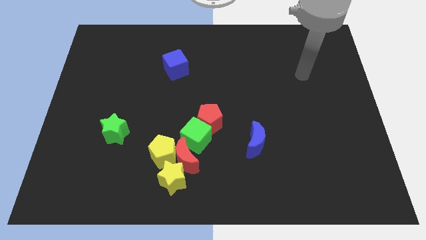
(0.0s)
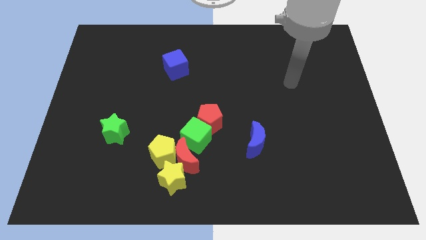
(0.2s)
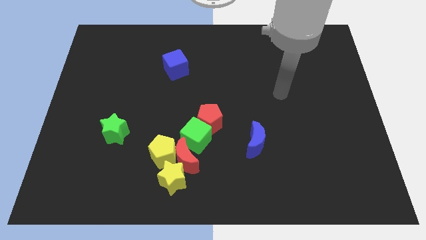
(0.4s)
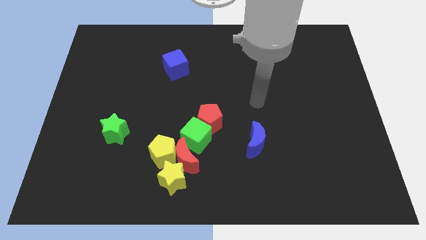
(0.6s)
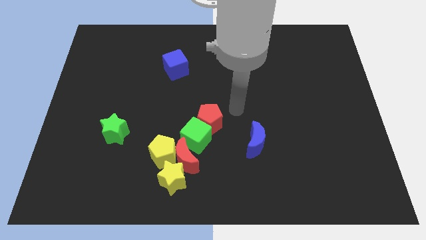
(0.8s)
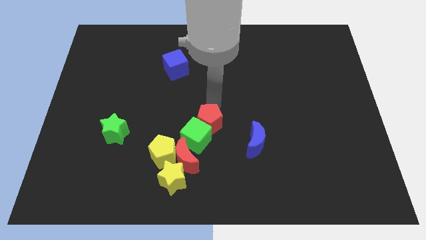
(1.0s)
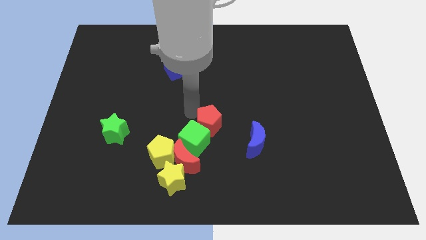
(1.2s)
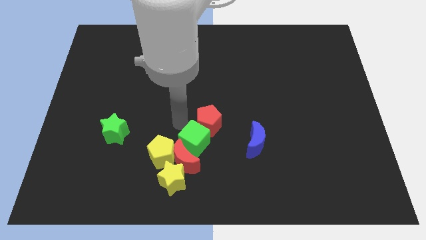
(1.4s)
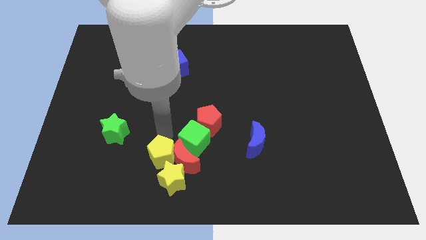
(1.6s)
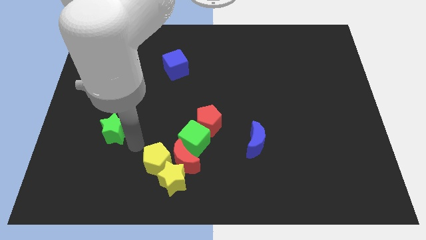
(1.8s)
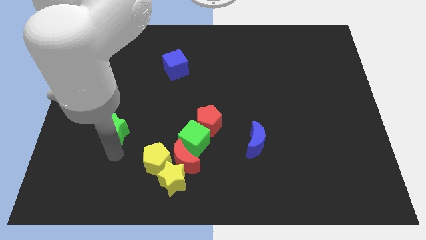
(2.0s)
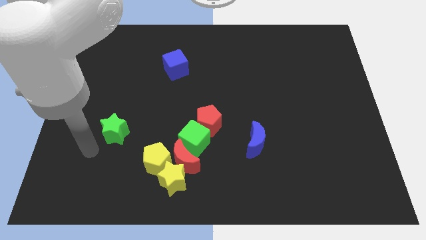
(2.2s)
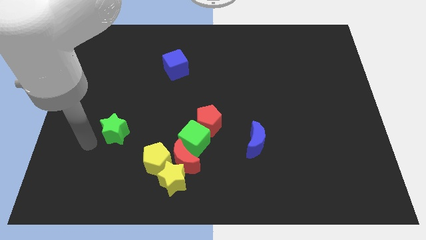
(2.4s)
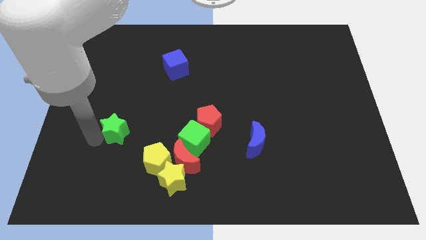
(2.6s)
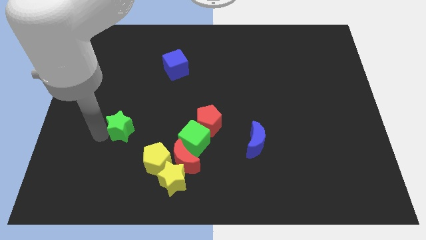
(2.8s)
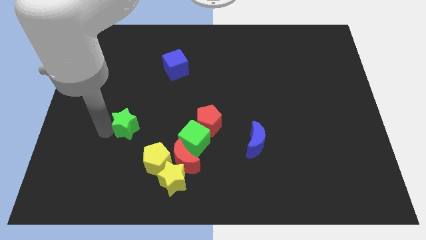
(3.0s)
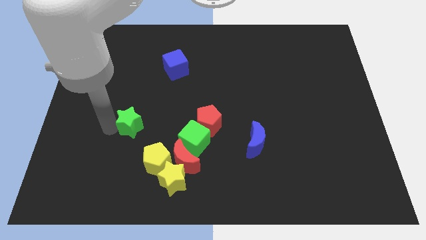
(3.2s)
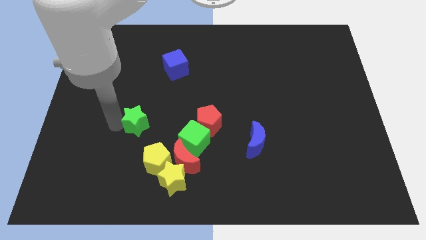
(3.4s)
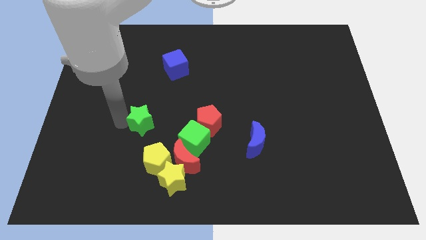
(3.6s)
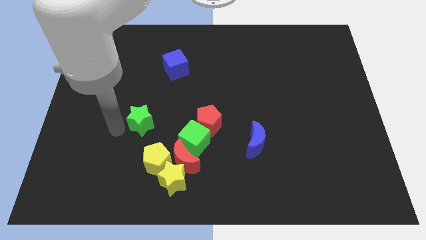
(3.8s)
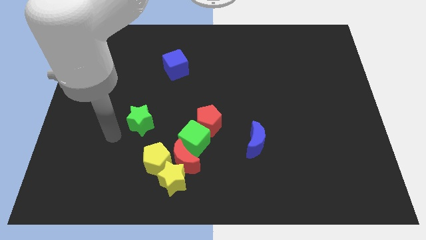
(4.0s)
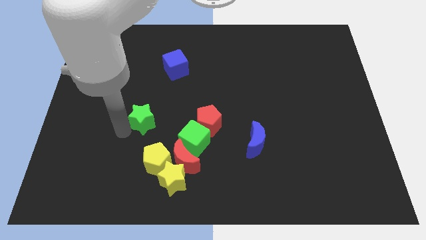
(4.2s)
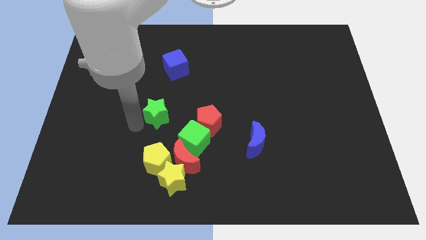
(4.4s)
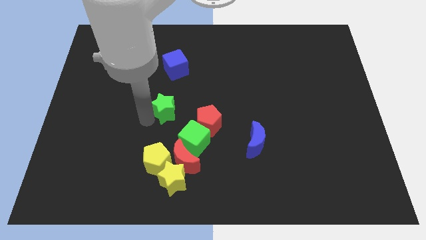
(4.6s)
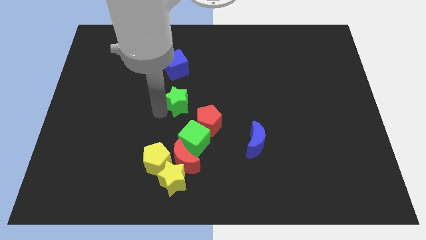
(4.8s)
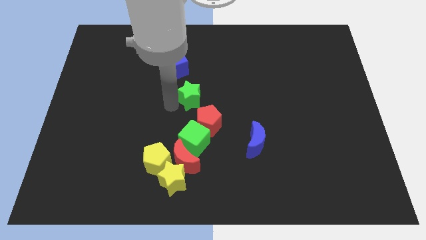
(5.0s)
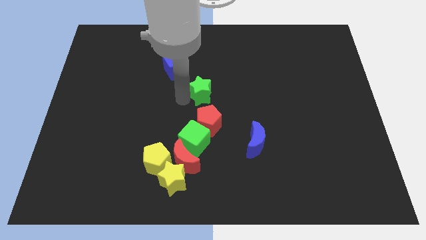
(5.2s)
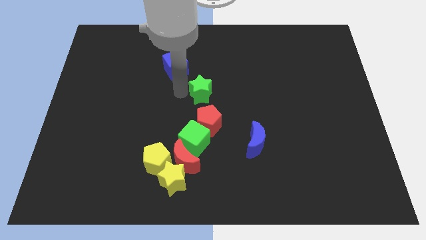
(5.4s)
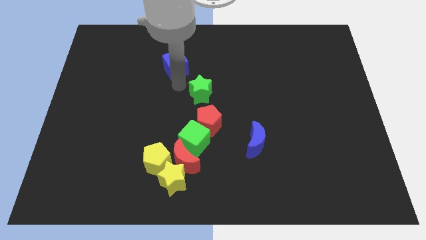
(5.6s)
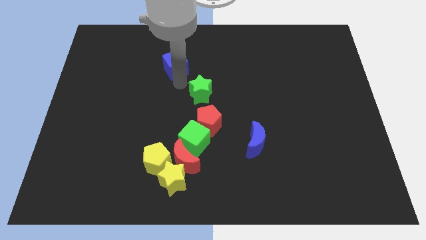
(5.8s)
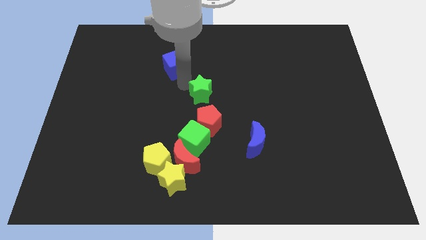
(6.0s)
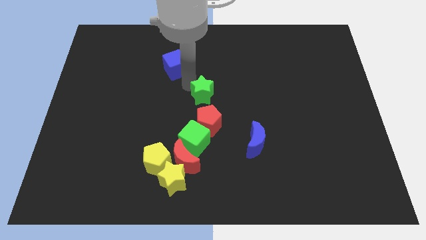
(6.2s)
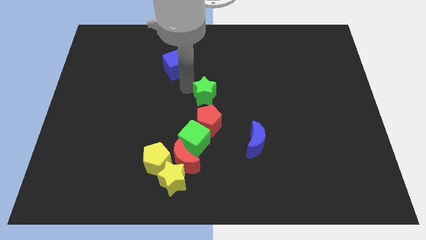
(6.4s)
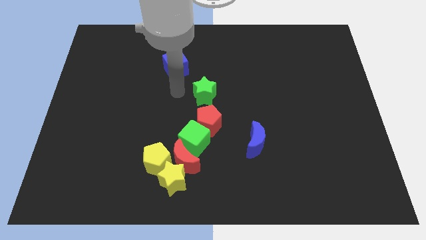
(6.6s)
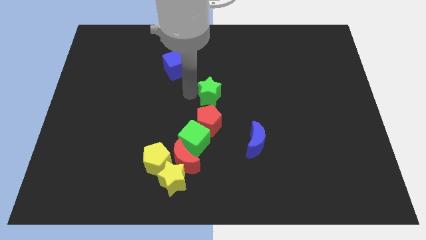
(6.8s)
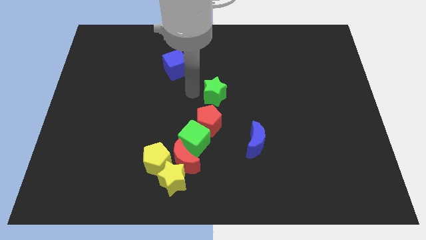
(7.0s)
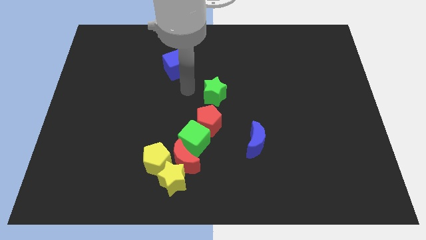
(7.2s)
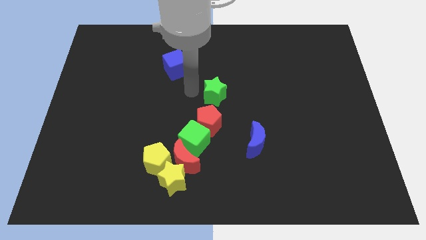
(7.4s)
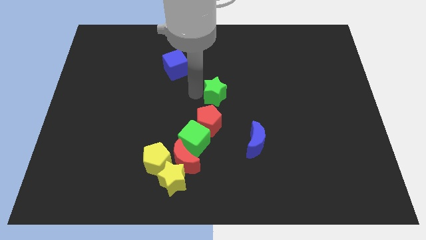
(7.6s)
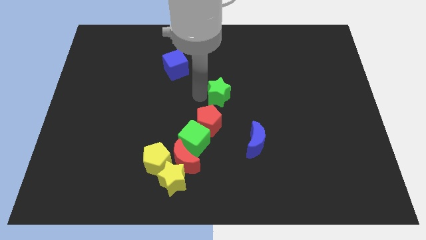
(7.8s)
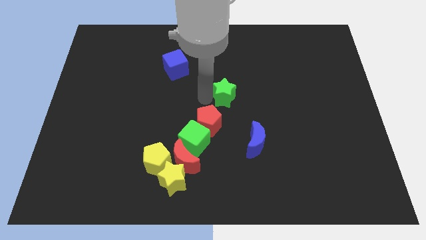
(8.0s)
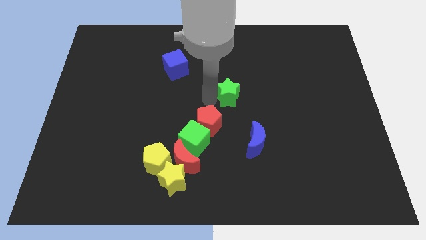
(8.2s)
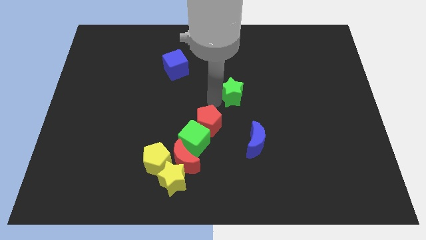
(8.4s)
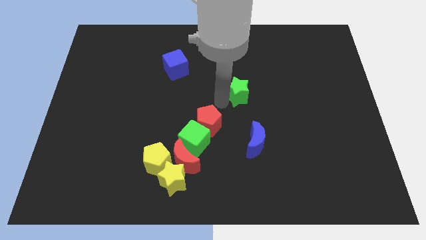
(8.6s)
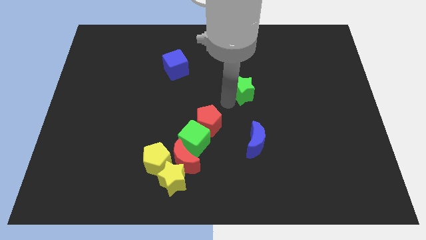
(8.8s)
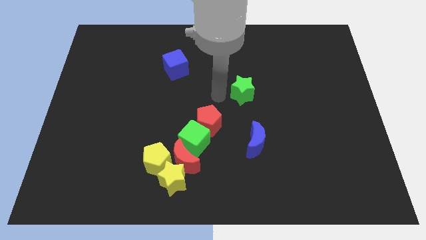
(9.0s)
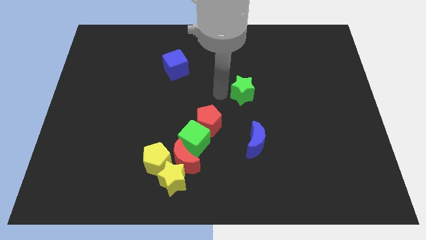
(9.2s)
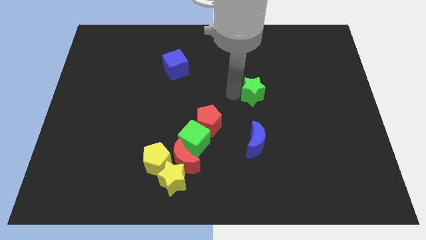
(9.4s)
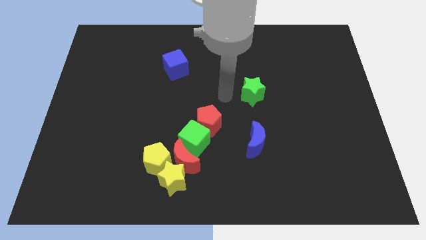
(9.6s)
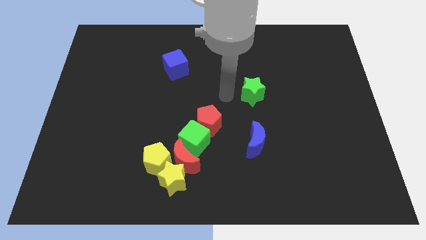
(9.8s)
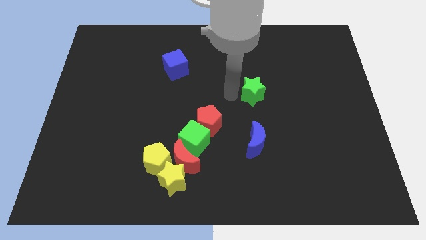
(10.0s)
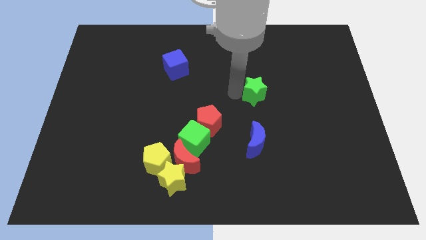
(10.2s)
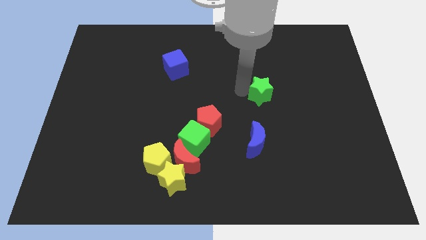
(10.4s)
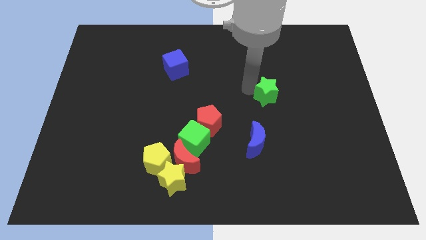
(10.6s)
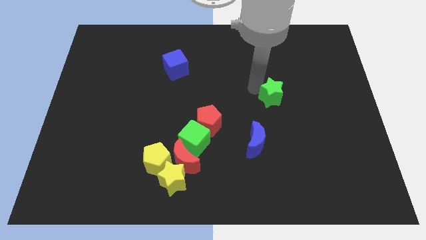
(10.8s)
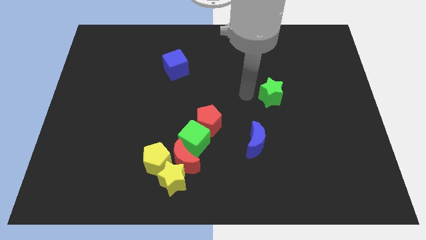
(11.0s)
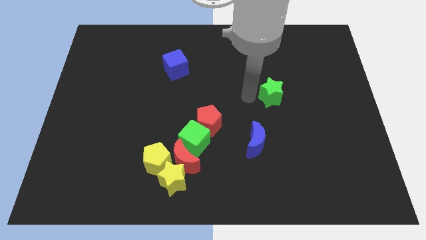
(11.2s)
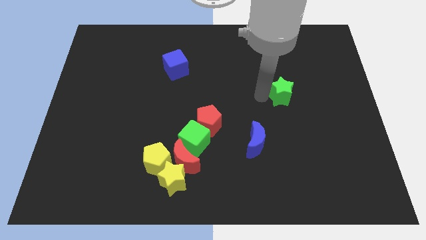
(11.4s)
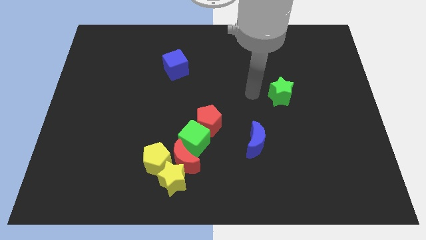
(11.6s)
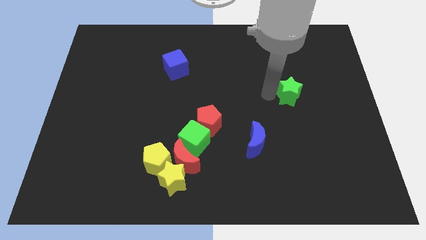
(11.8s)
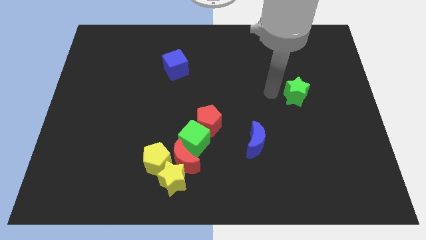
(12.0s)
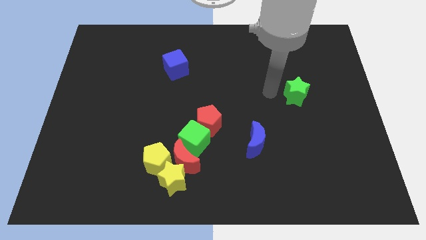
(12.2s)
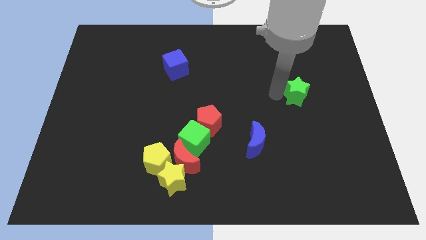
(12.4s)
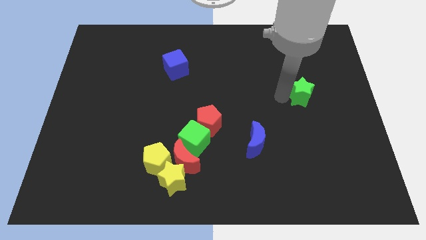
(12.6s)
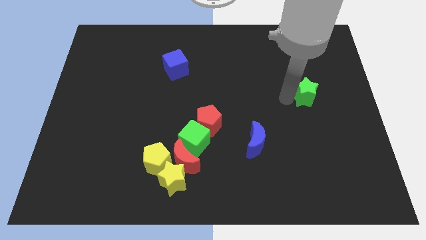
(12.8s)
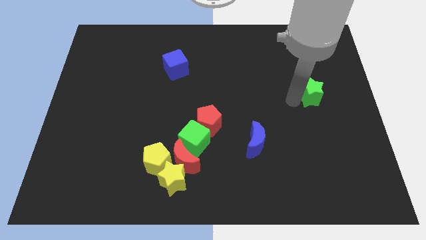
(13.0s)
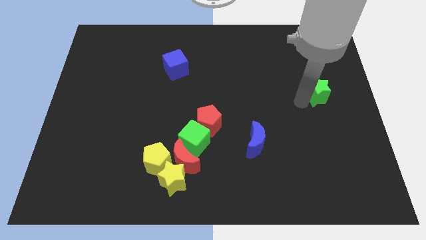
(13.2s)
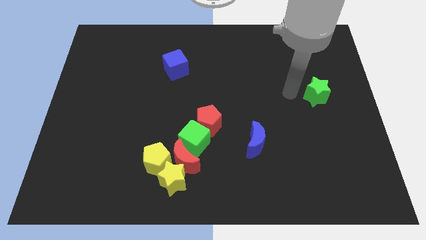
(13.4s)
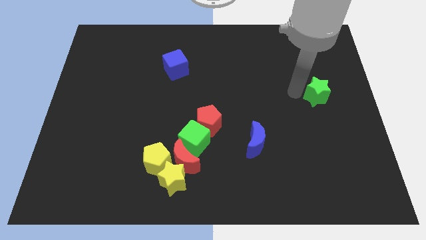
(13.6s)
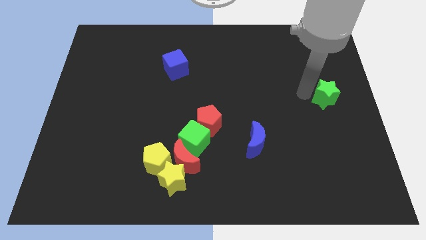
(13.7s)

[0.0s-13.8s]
slide the green star to the center right
